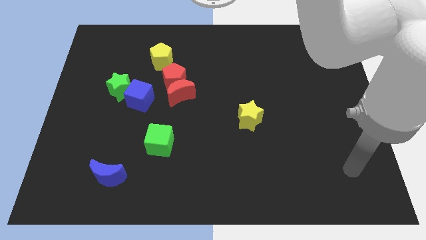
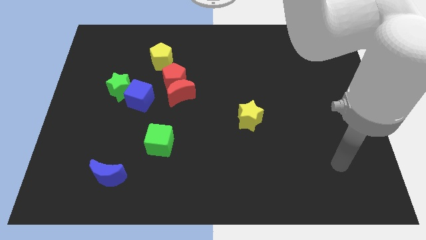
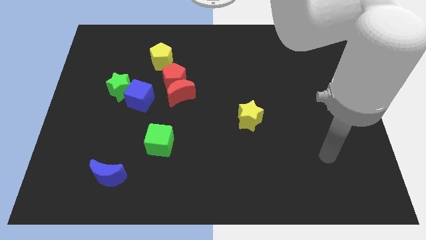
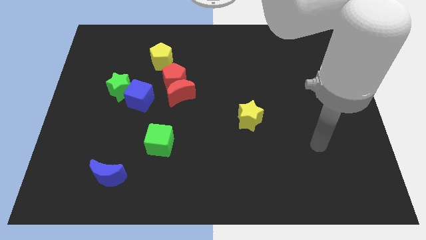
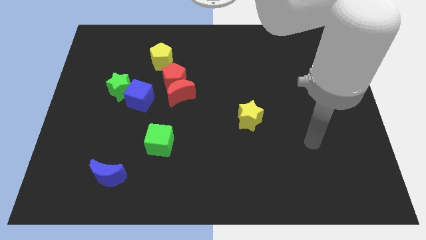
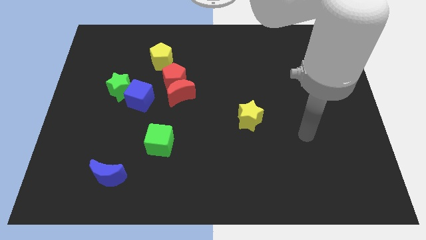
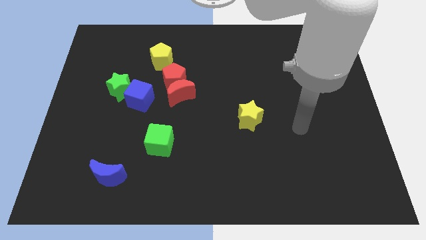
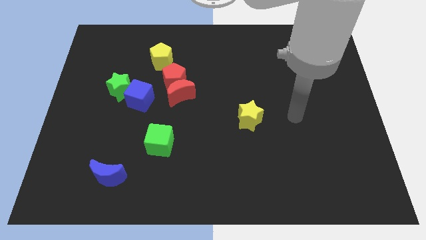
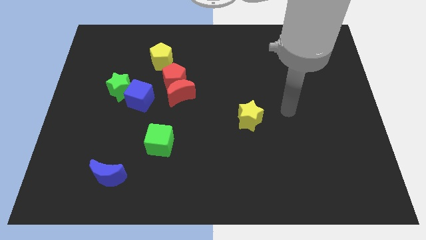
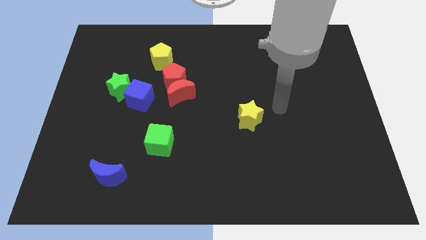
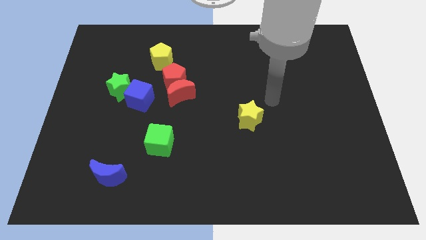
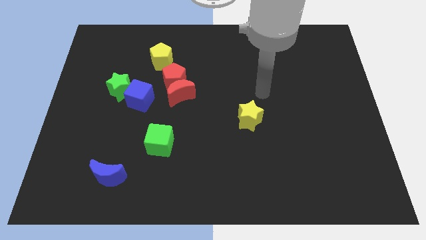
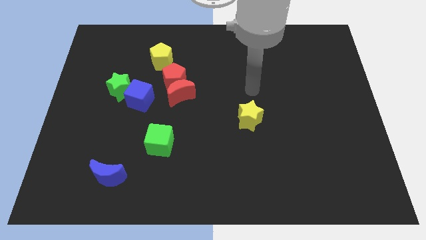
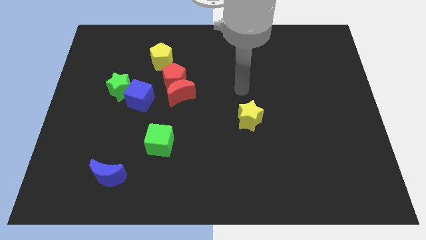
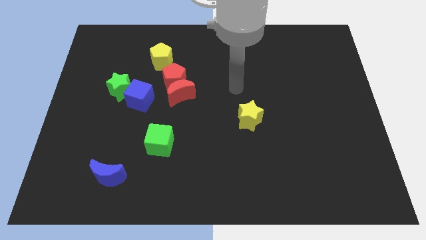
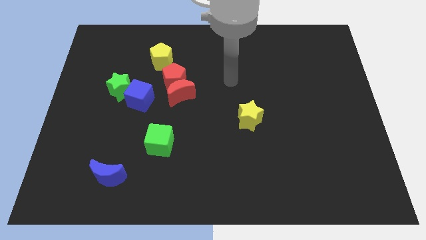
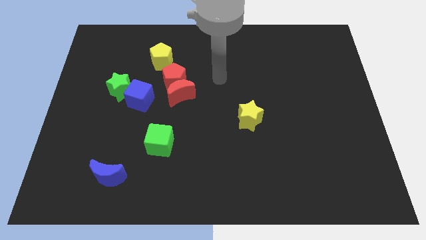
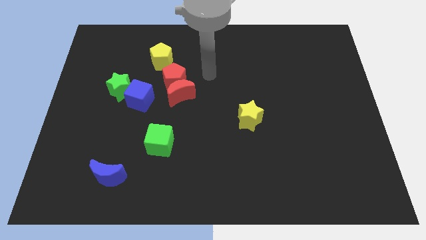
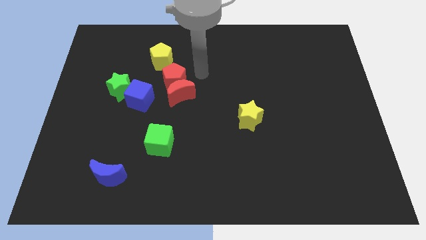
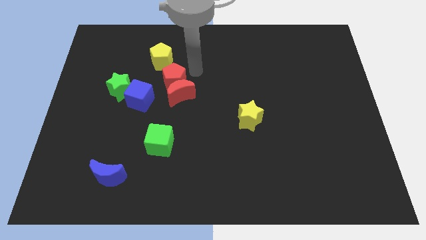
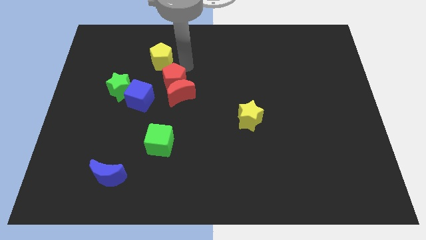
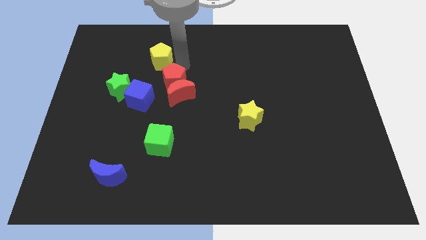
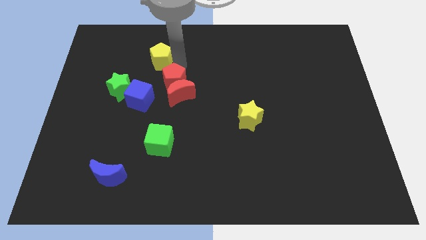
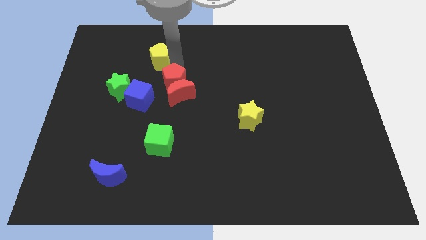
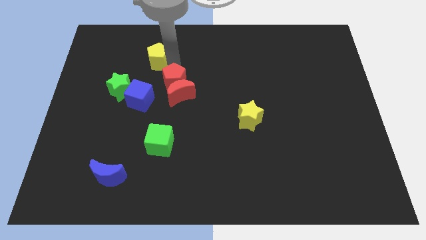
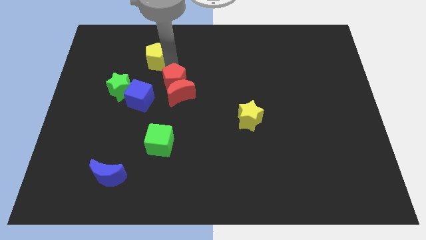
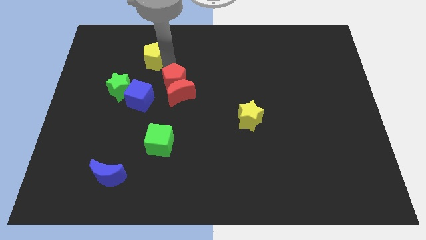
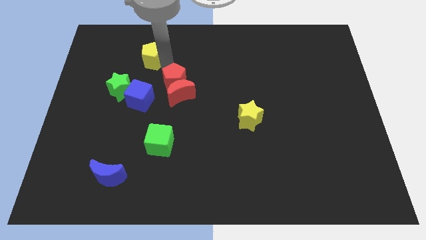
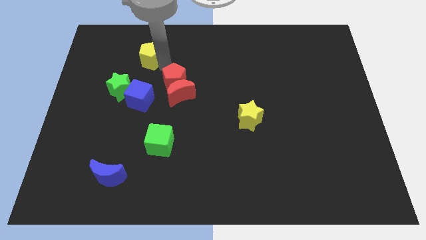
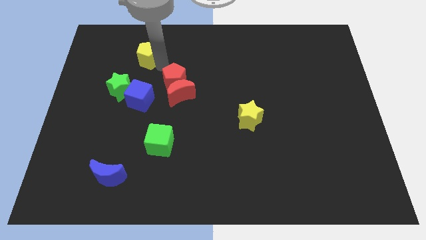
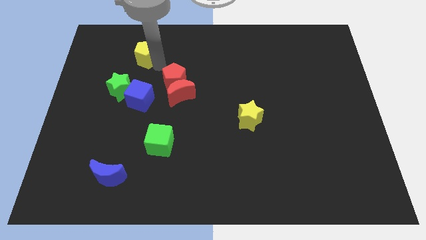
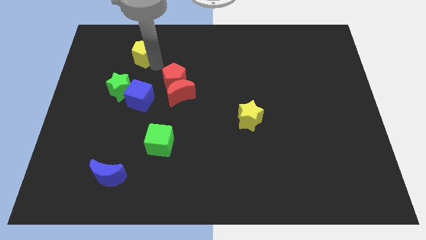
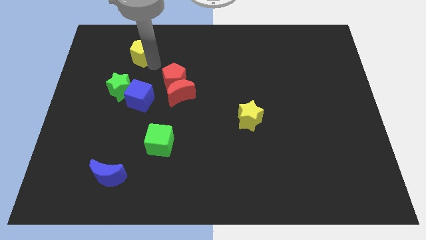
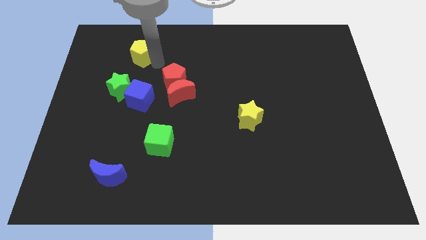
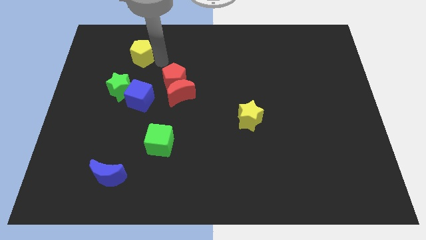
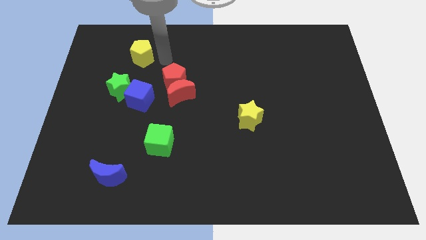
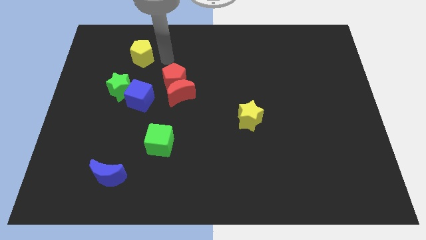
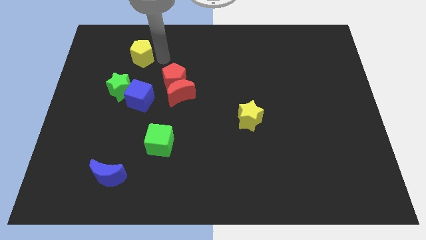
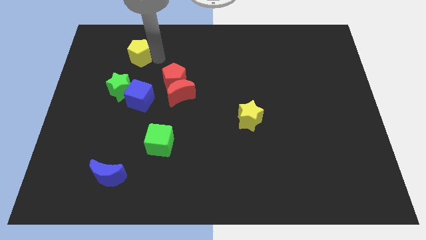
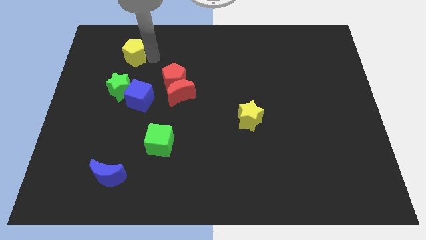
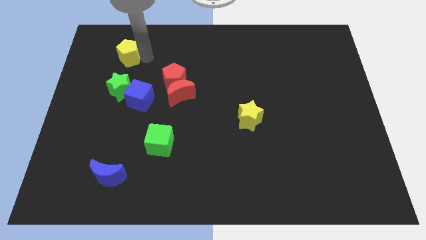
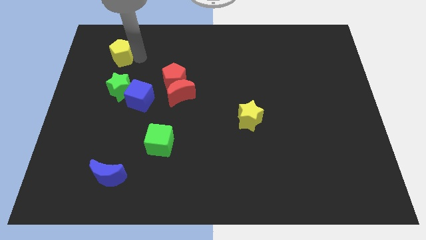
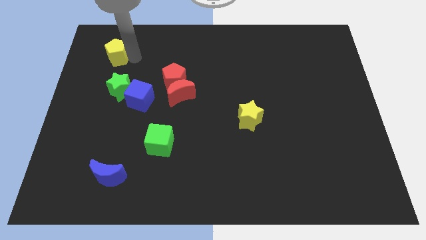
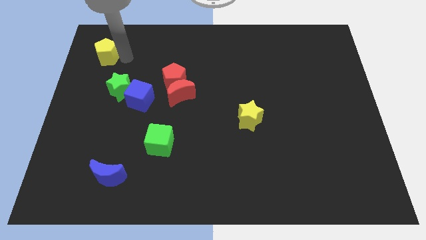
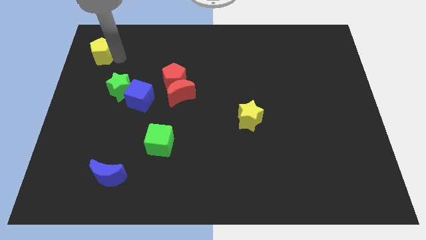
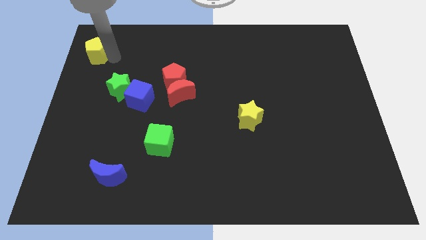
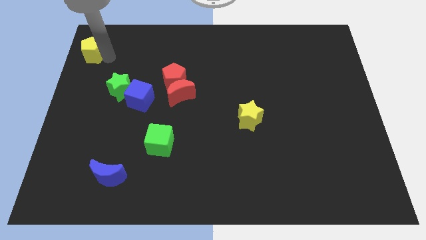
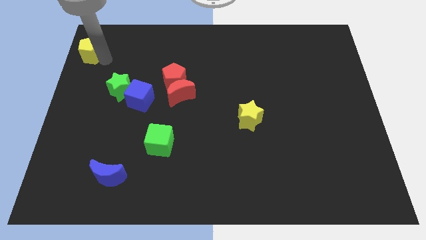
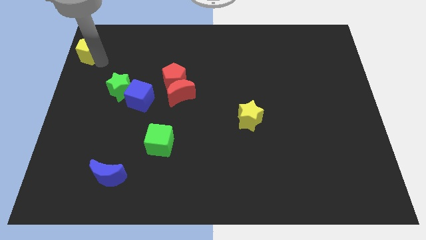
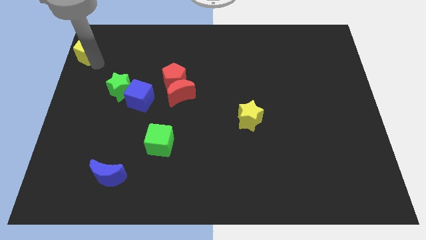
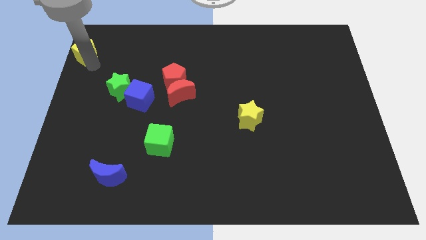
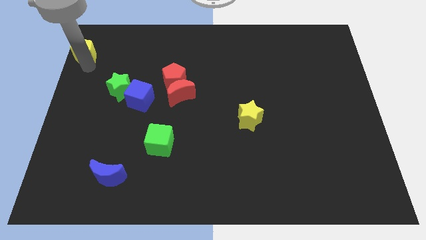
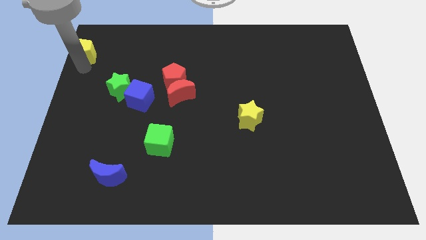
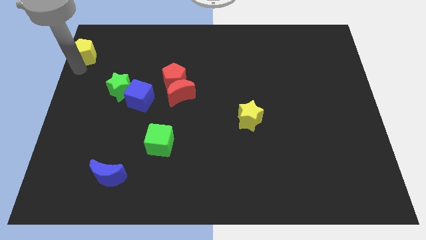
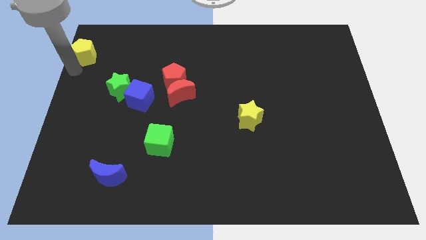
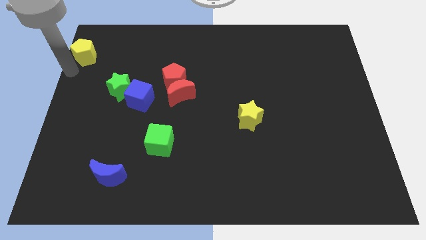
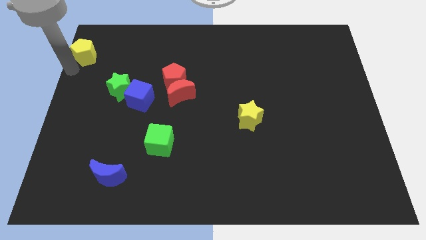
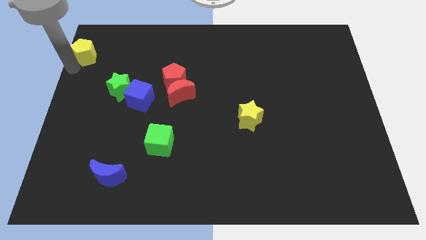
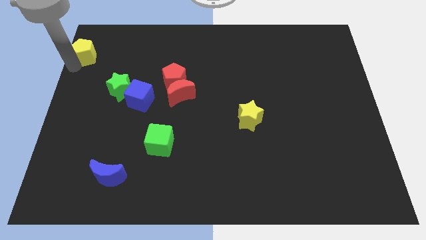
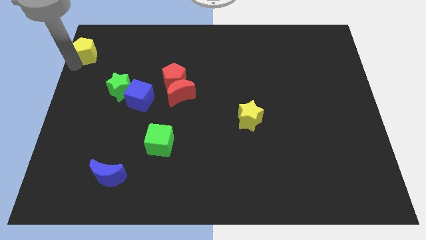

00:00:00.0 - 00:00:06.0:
move the yellow pentagon to the top left

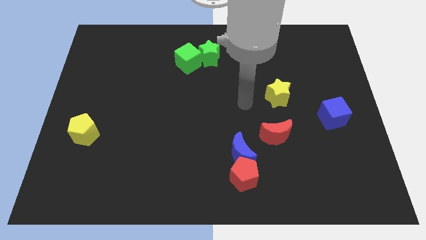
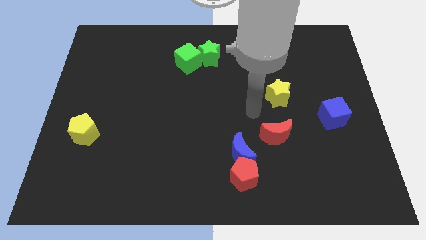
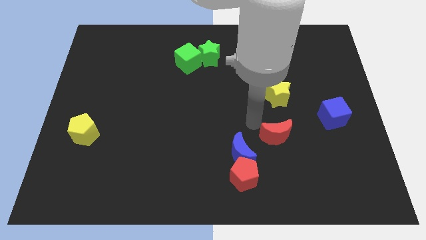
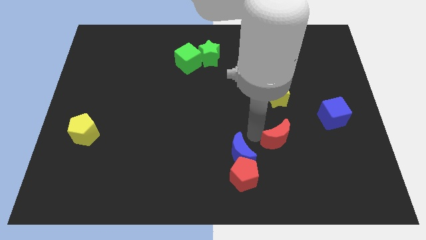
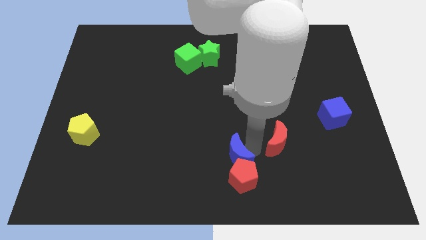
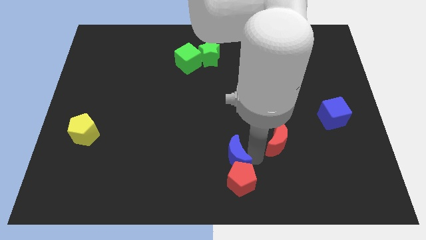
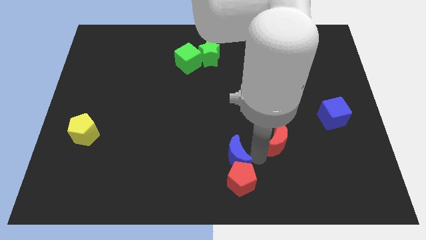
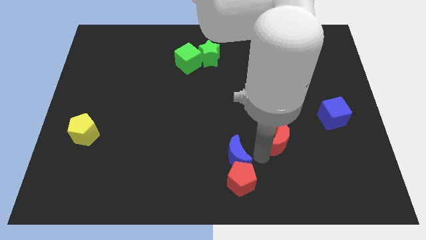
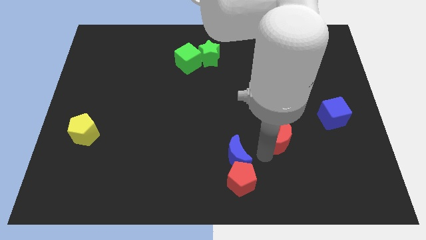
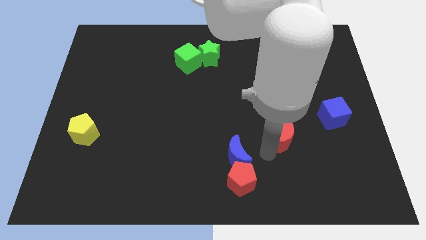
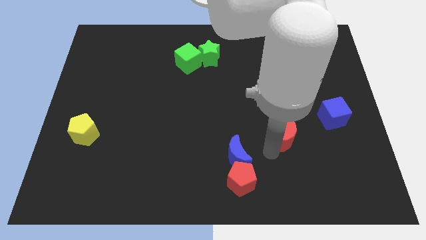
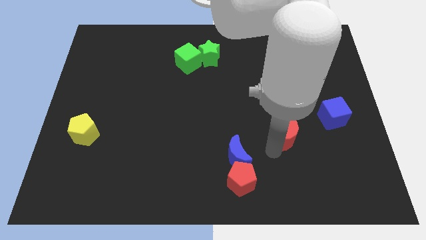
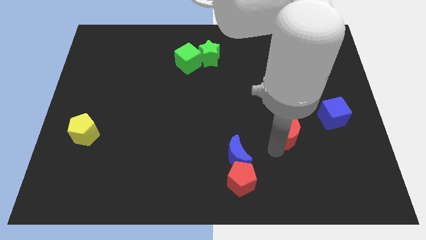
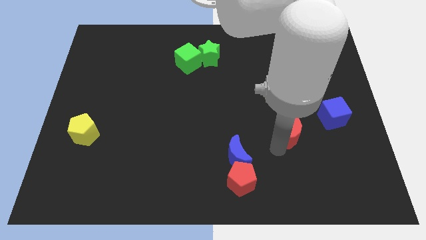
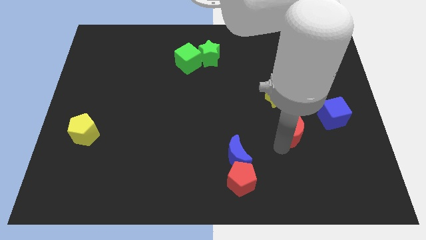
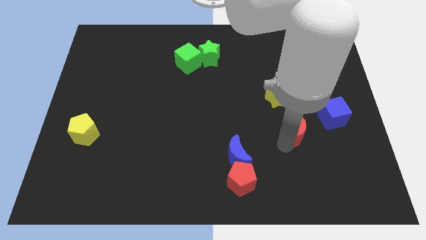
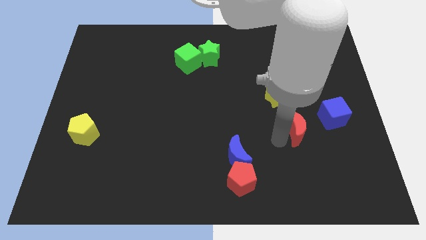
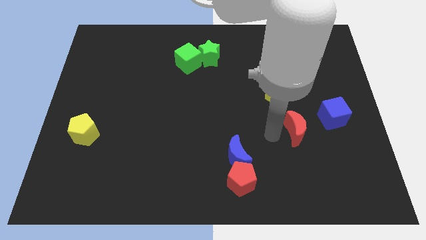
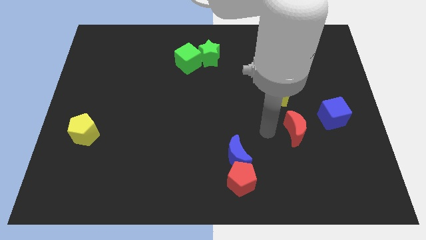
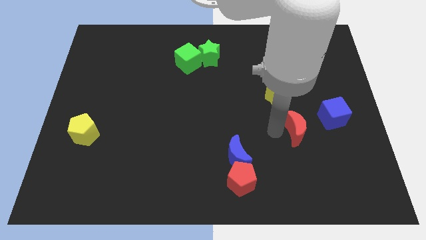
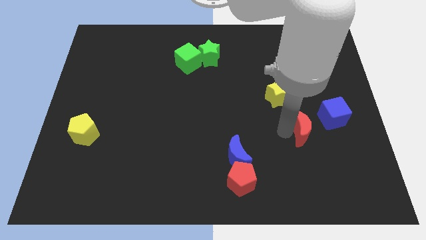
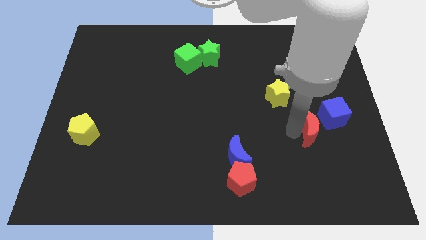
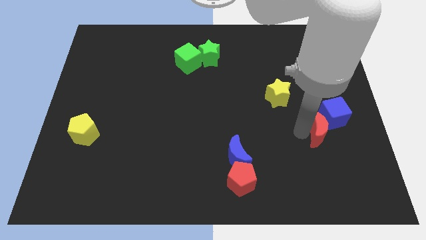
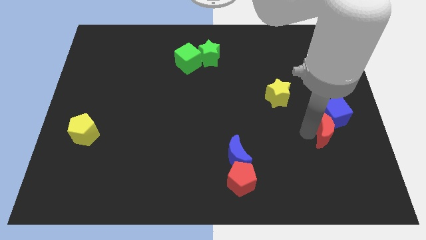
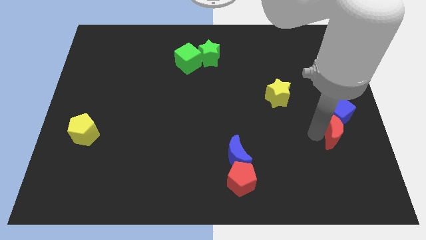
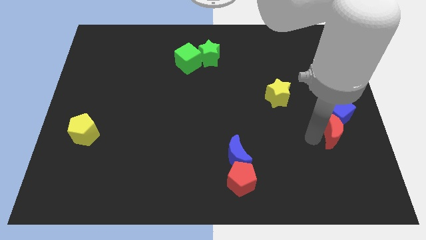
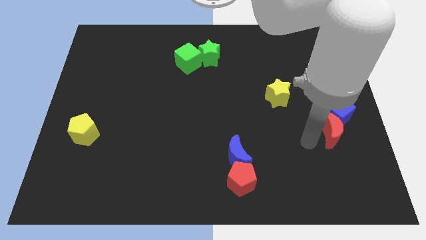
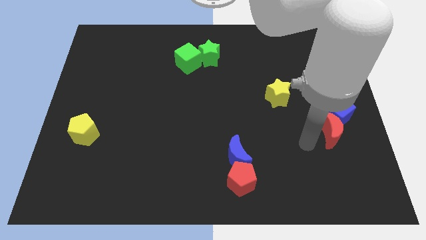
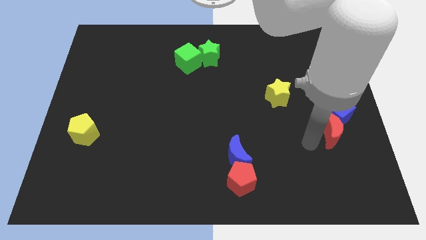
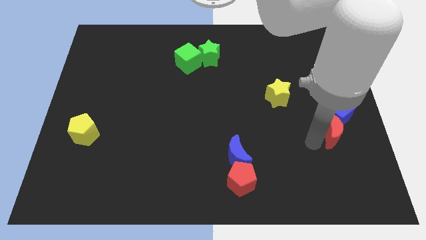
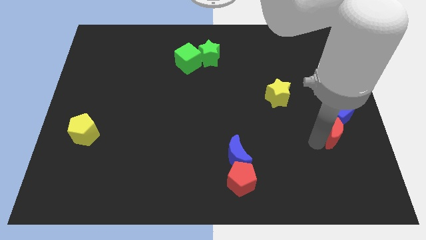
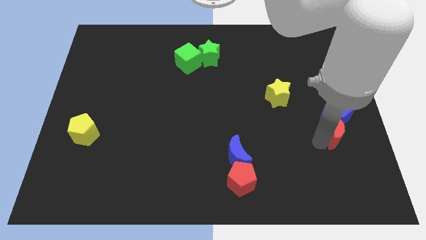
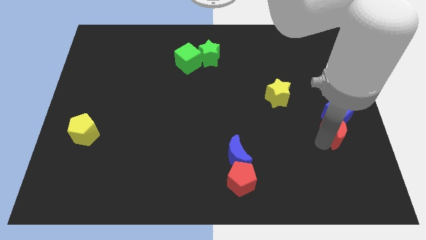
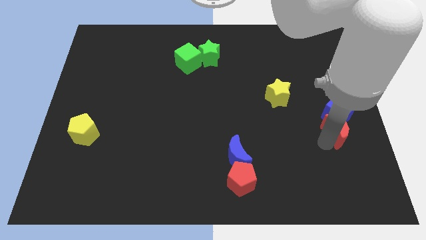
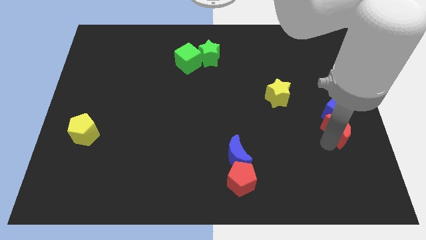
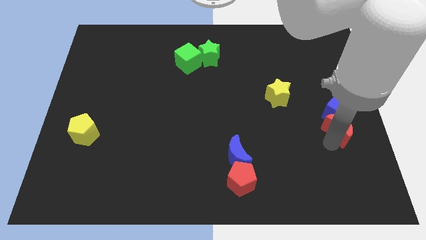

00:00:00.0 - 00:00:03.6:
push the red moon to the right side of the board
